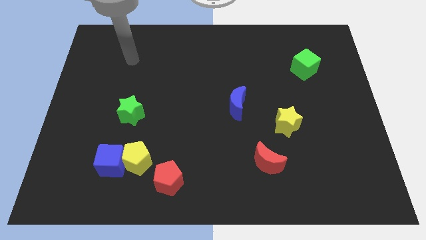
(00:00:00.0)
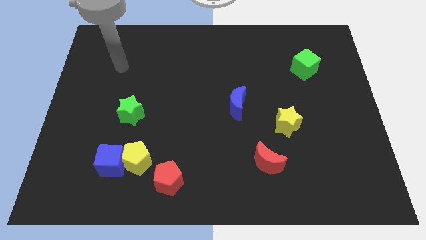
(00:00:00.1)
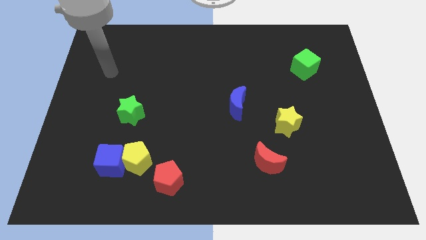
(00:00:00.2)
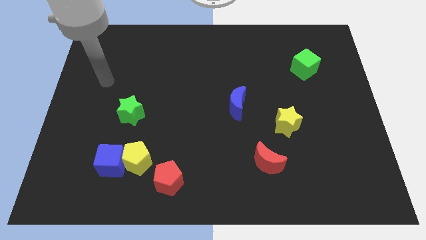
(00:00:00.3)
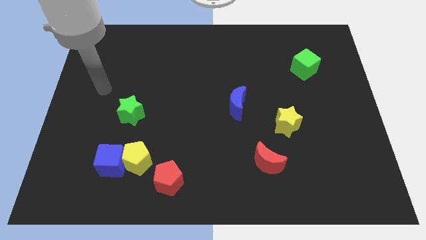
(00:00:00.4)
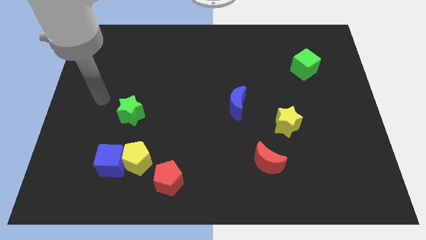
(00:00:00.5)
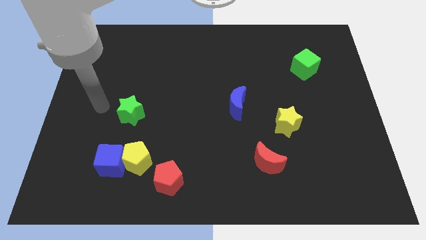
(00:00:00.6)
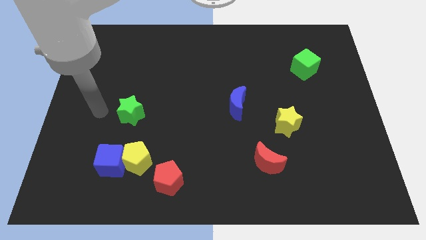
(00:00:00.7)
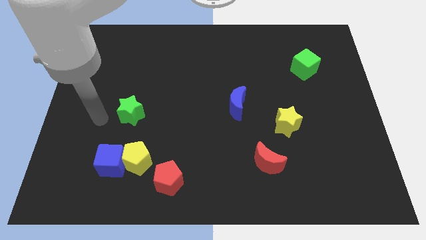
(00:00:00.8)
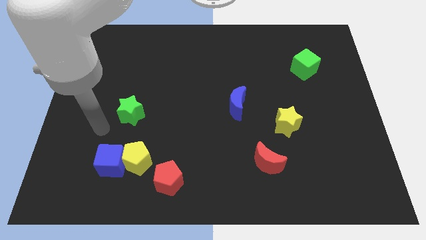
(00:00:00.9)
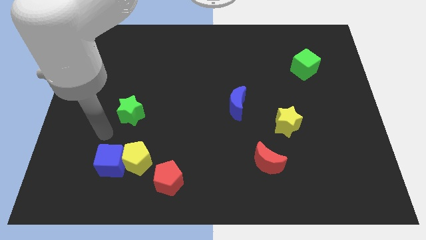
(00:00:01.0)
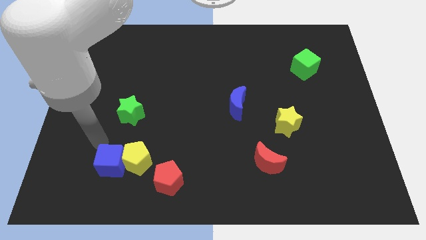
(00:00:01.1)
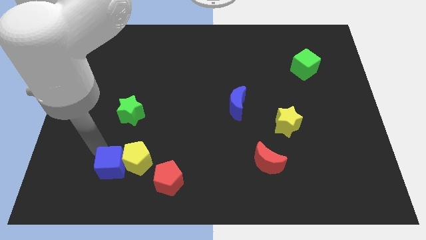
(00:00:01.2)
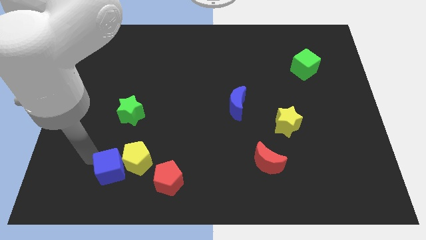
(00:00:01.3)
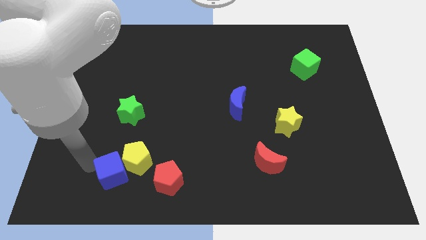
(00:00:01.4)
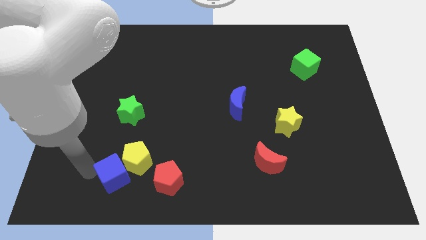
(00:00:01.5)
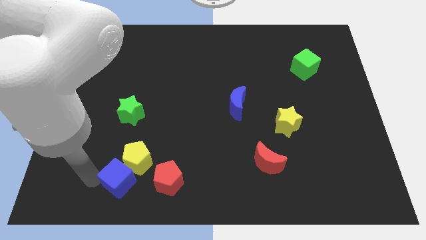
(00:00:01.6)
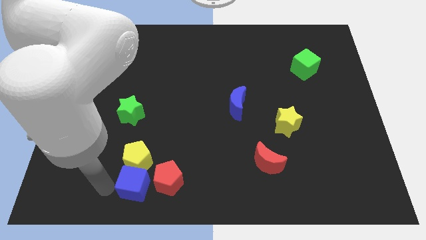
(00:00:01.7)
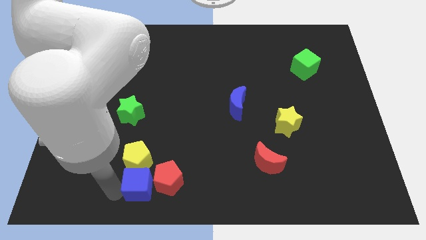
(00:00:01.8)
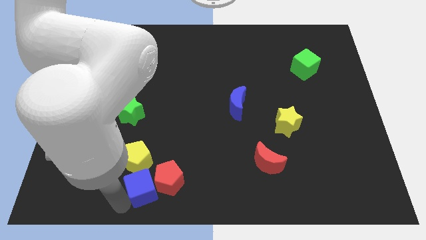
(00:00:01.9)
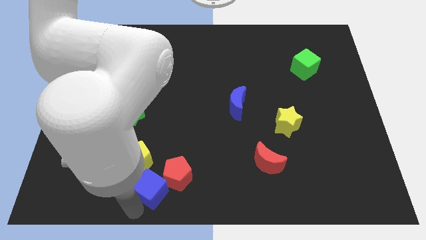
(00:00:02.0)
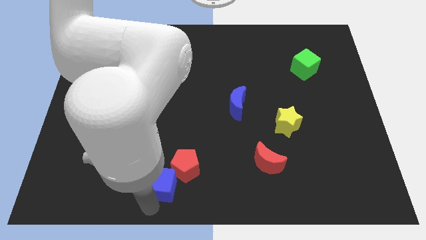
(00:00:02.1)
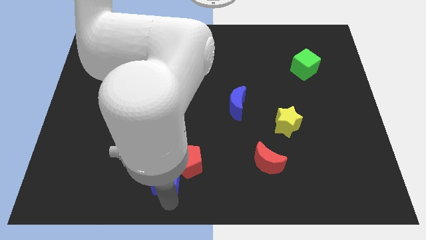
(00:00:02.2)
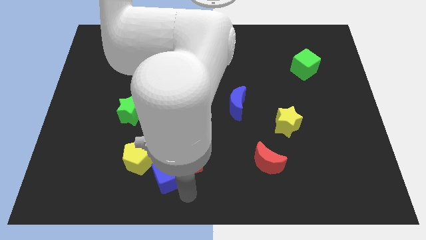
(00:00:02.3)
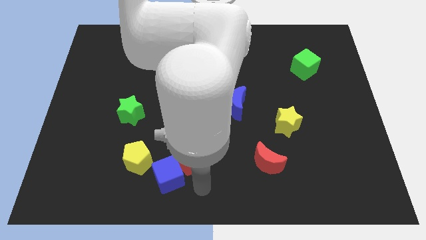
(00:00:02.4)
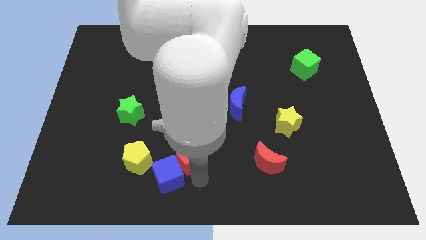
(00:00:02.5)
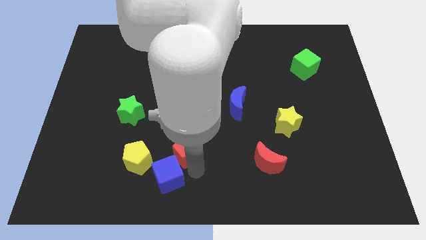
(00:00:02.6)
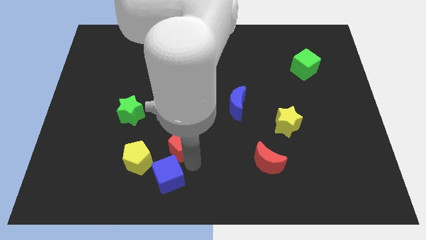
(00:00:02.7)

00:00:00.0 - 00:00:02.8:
slide the red pentagon a little up

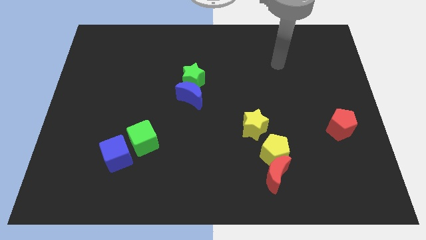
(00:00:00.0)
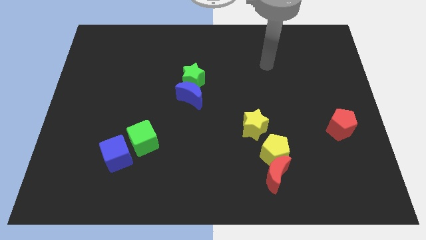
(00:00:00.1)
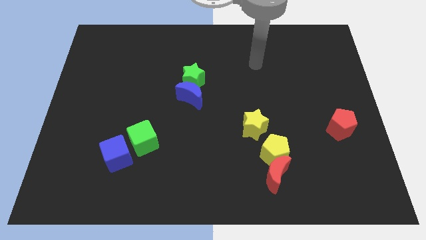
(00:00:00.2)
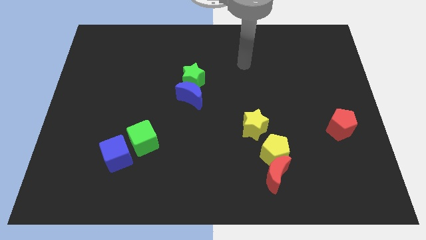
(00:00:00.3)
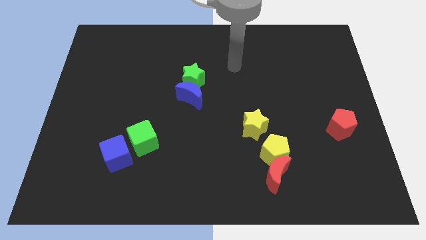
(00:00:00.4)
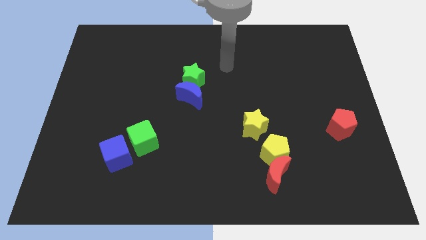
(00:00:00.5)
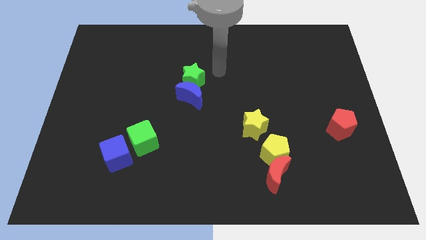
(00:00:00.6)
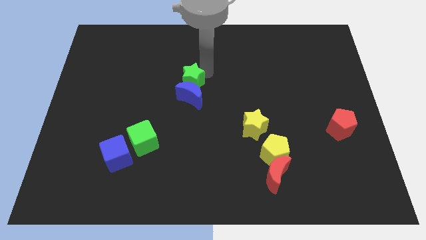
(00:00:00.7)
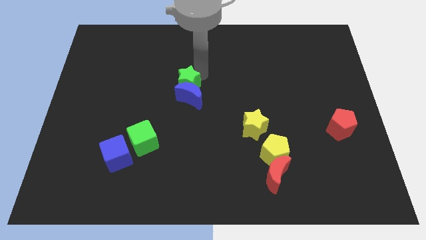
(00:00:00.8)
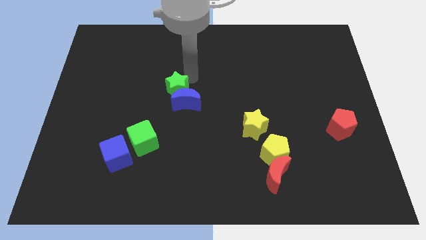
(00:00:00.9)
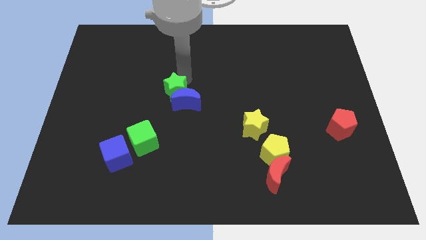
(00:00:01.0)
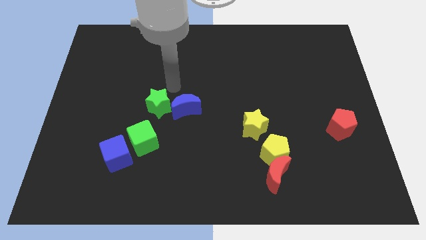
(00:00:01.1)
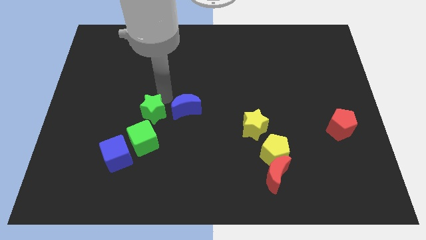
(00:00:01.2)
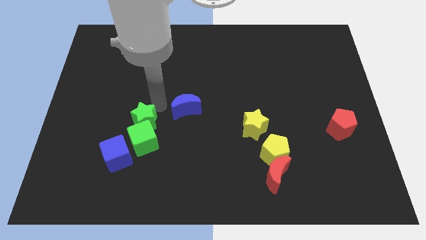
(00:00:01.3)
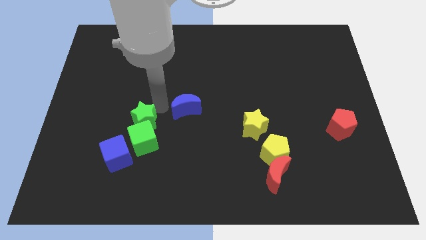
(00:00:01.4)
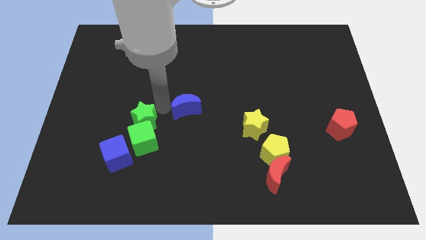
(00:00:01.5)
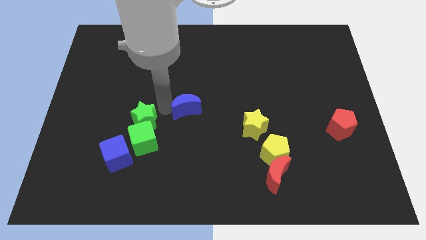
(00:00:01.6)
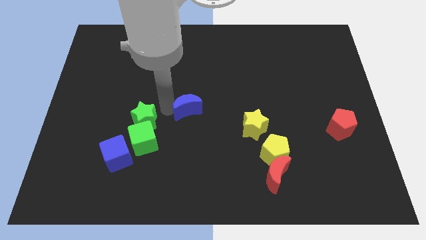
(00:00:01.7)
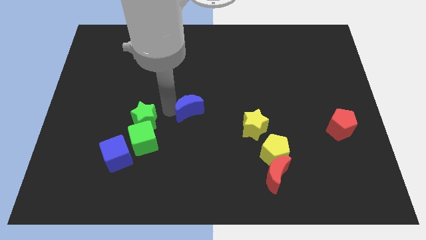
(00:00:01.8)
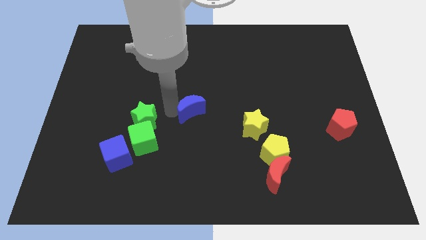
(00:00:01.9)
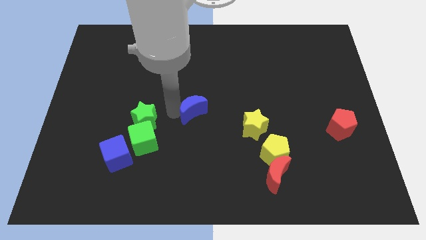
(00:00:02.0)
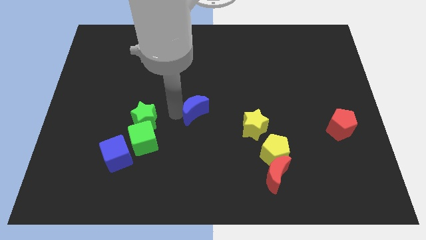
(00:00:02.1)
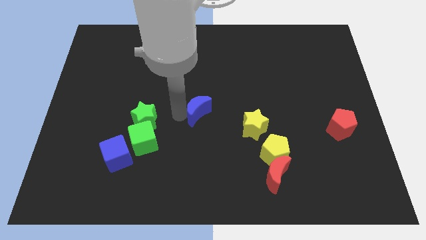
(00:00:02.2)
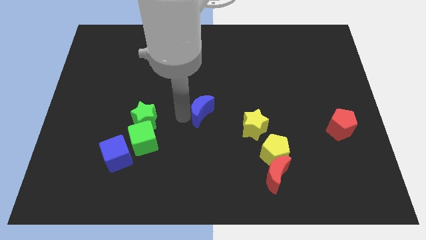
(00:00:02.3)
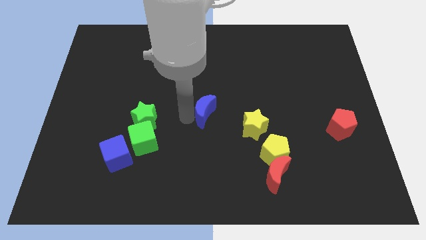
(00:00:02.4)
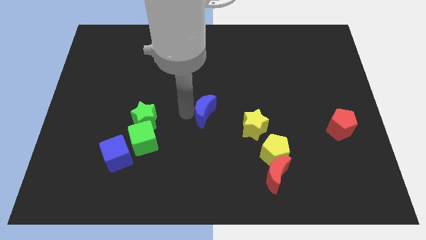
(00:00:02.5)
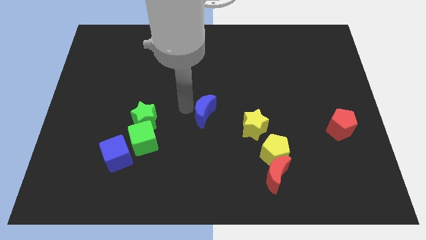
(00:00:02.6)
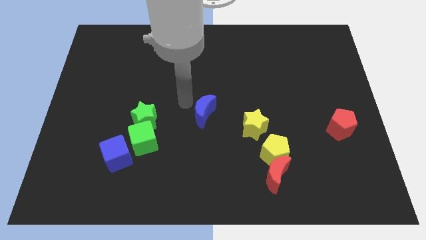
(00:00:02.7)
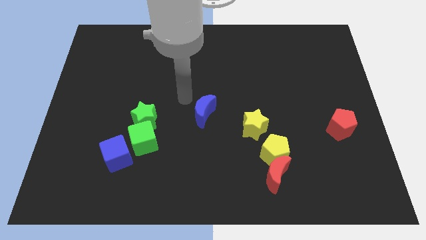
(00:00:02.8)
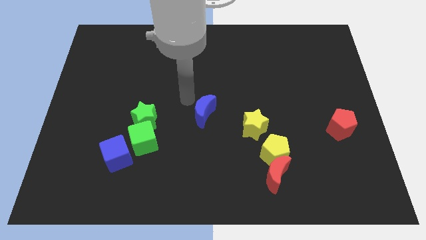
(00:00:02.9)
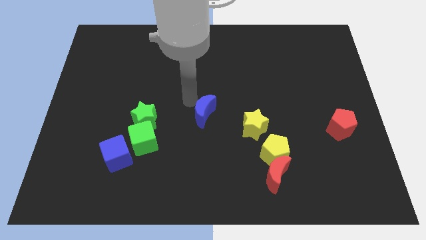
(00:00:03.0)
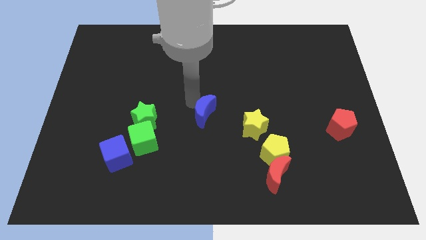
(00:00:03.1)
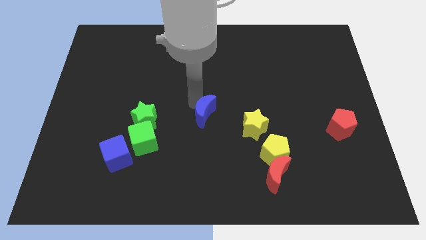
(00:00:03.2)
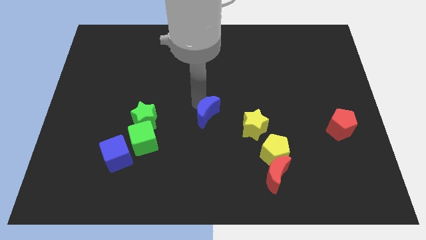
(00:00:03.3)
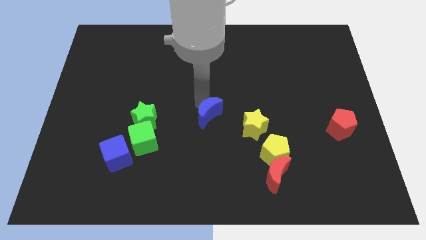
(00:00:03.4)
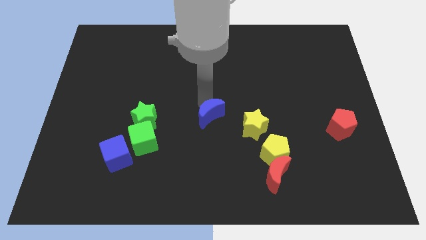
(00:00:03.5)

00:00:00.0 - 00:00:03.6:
move the blue moon down and right diagonally a bit

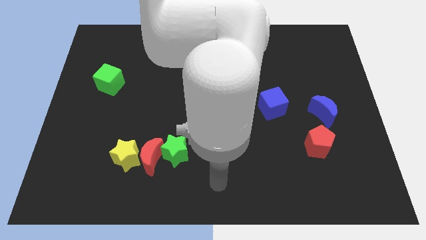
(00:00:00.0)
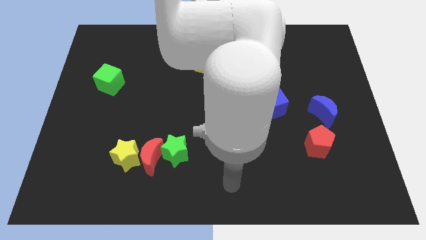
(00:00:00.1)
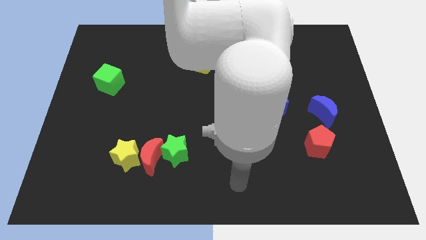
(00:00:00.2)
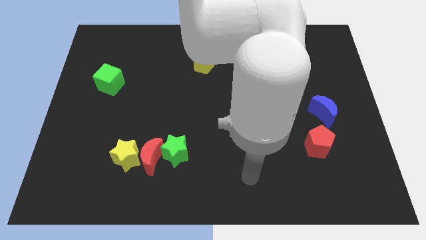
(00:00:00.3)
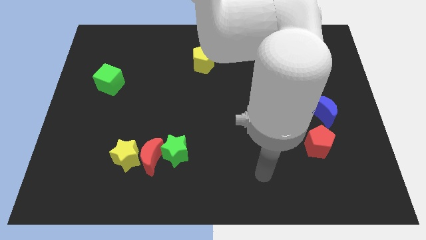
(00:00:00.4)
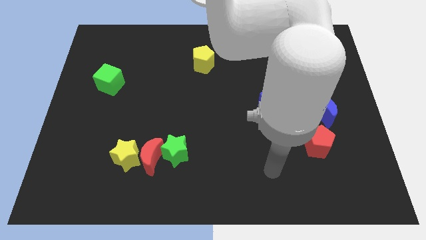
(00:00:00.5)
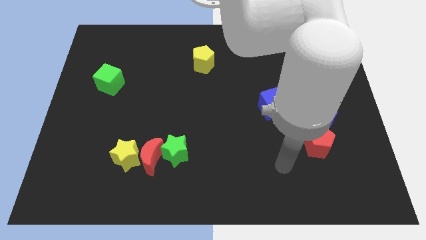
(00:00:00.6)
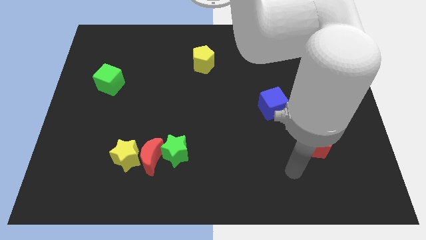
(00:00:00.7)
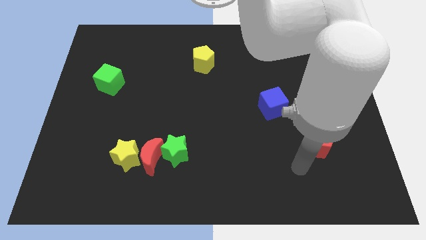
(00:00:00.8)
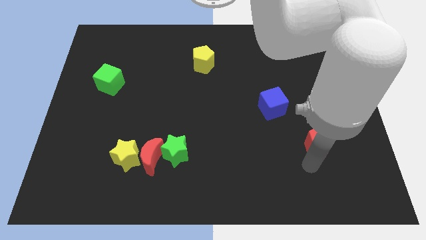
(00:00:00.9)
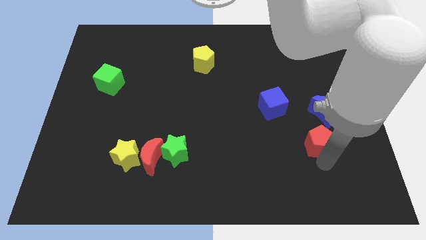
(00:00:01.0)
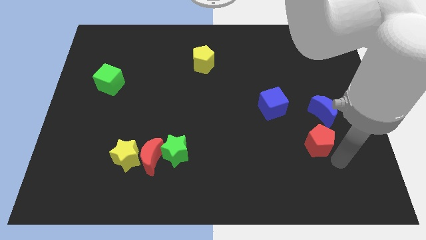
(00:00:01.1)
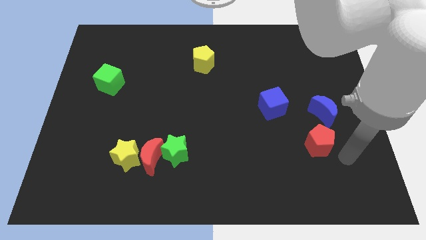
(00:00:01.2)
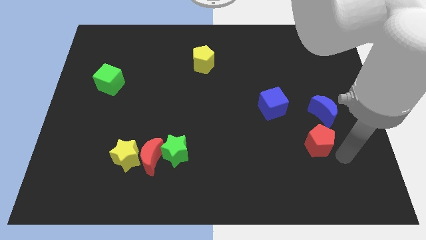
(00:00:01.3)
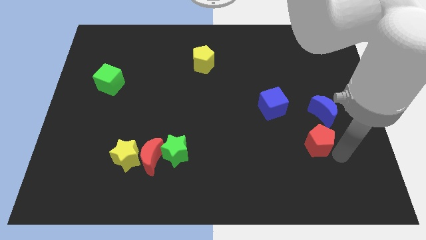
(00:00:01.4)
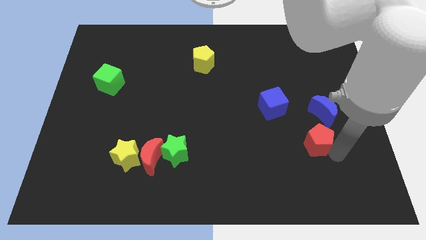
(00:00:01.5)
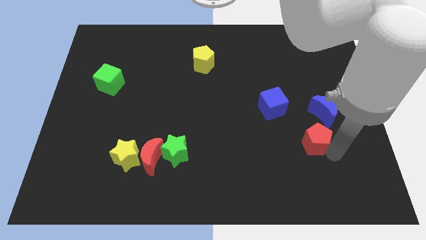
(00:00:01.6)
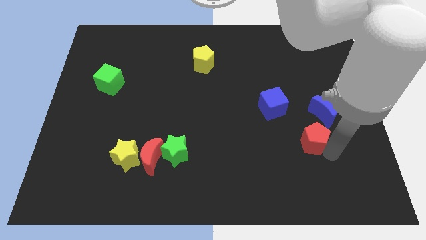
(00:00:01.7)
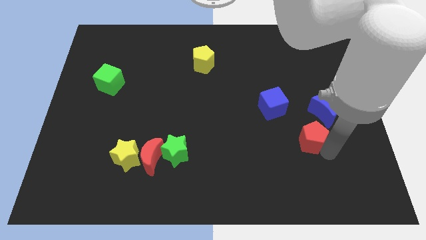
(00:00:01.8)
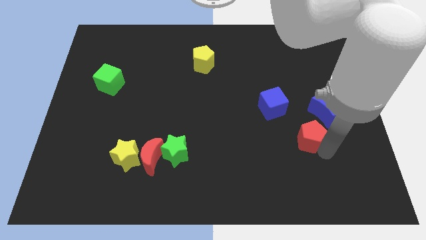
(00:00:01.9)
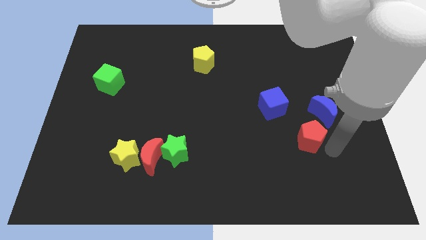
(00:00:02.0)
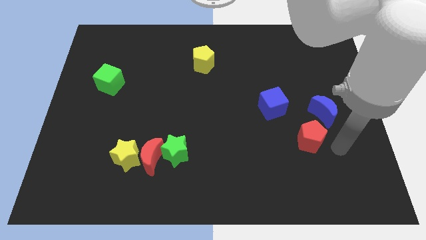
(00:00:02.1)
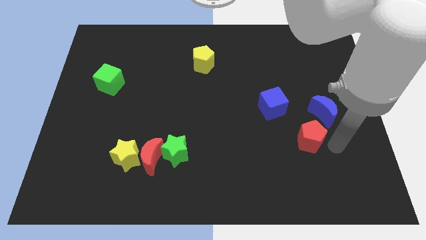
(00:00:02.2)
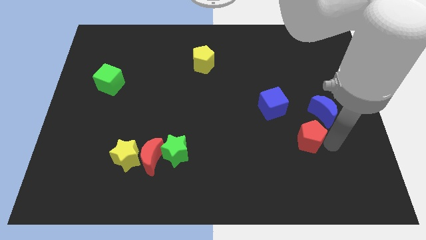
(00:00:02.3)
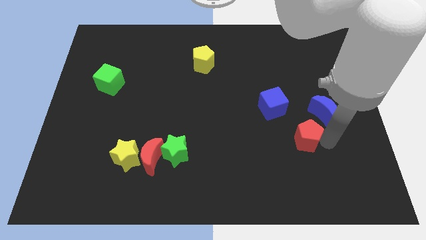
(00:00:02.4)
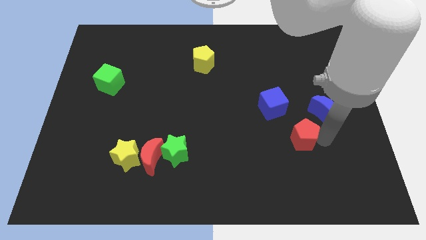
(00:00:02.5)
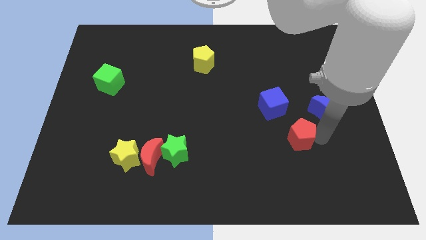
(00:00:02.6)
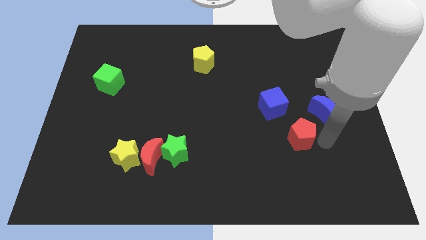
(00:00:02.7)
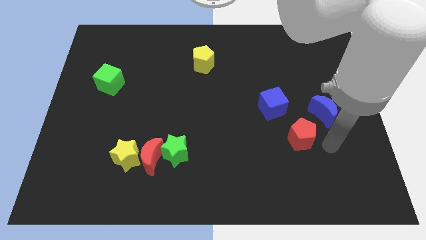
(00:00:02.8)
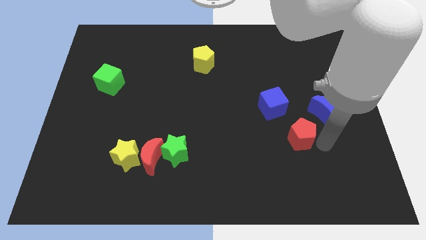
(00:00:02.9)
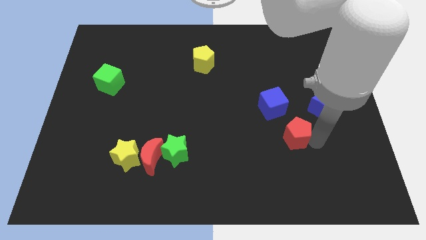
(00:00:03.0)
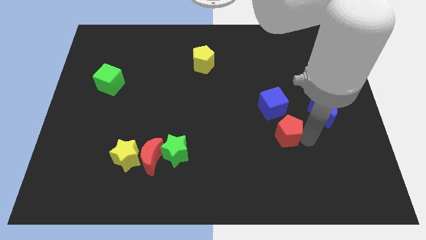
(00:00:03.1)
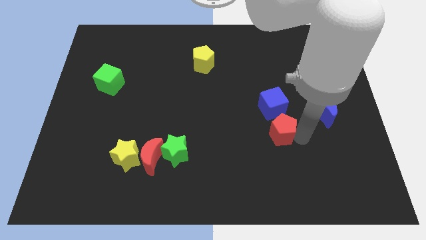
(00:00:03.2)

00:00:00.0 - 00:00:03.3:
push the red pentagon a little diagonally upwards and to the left
